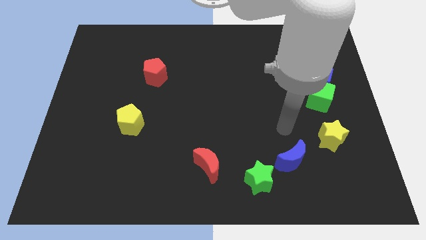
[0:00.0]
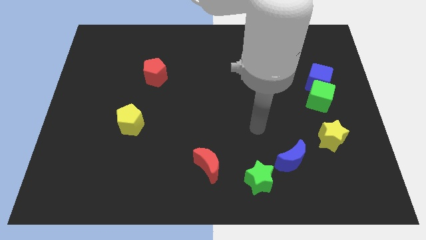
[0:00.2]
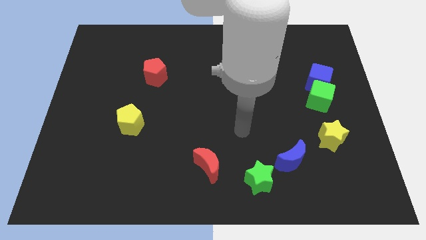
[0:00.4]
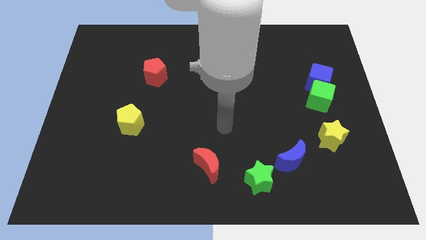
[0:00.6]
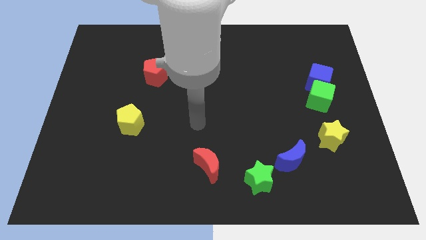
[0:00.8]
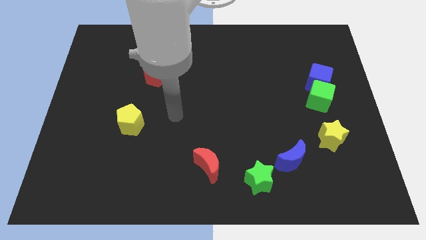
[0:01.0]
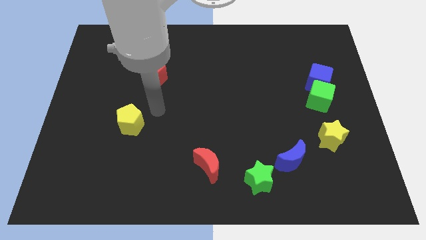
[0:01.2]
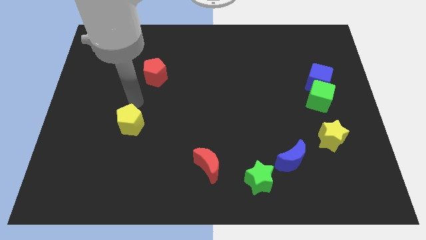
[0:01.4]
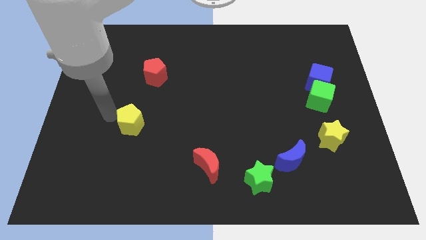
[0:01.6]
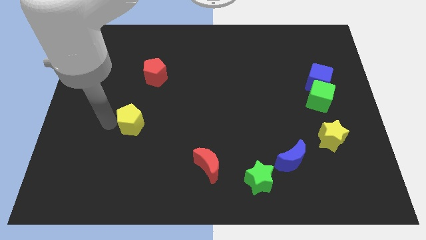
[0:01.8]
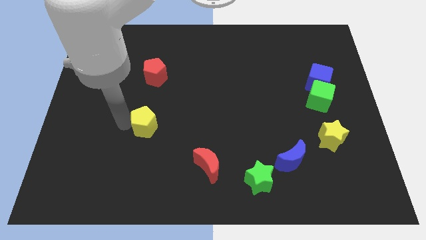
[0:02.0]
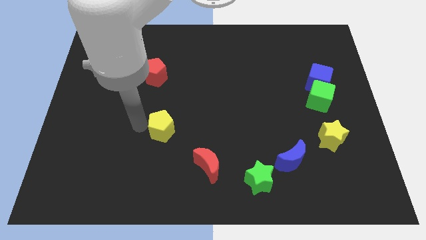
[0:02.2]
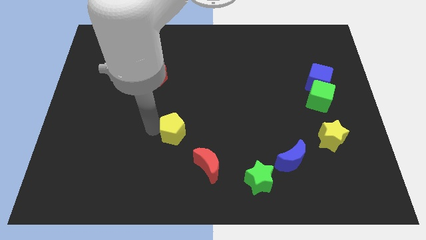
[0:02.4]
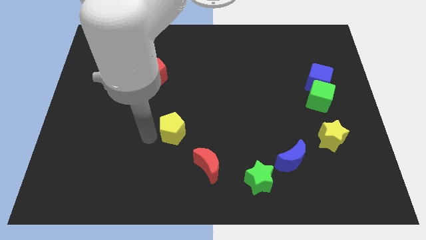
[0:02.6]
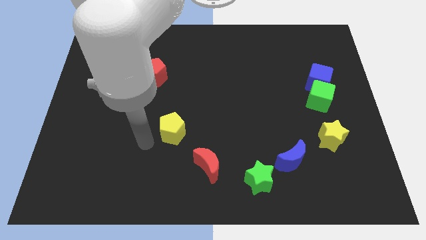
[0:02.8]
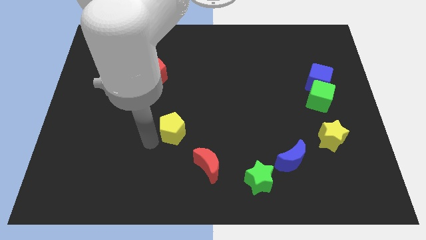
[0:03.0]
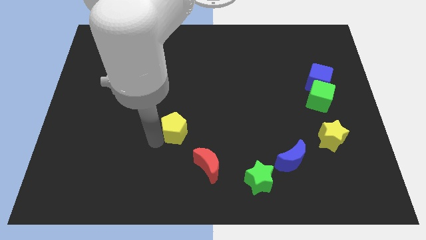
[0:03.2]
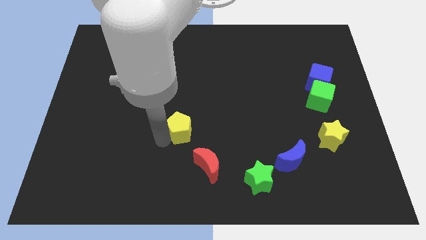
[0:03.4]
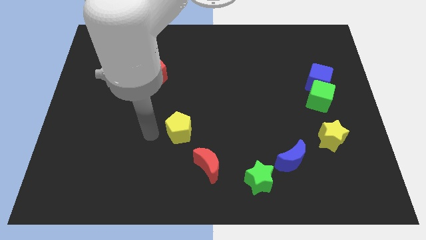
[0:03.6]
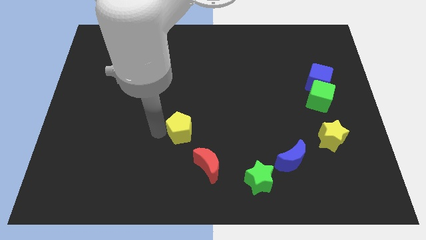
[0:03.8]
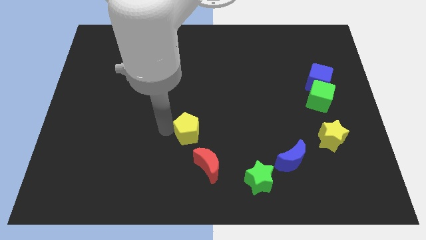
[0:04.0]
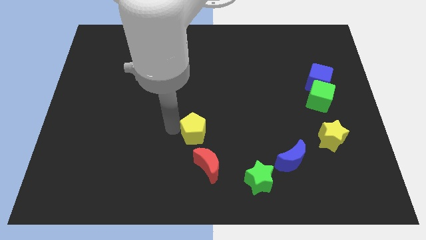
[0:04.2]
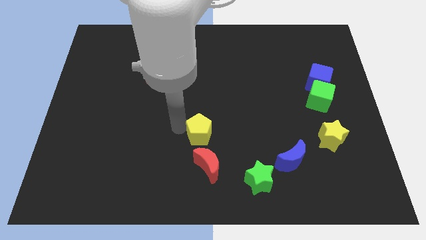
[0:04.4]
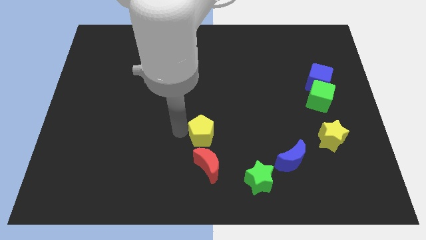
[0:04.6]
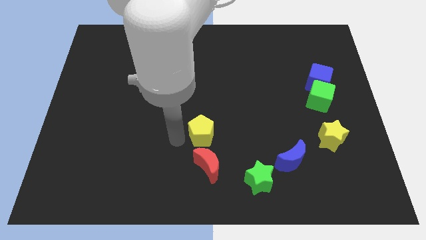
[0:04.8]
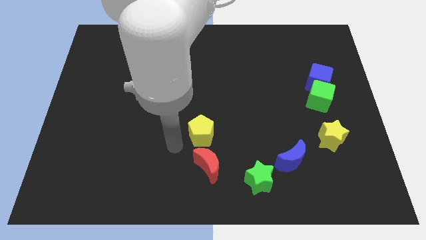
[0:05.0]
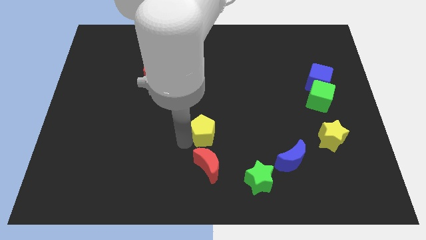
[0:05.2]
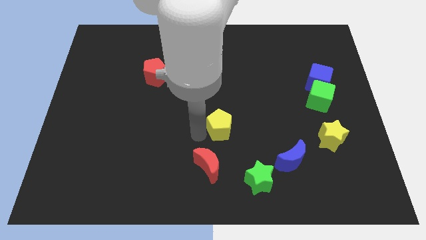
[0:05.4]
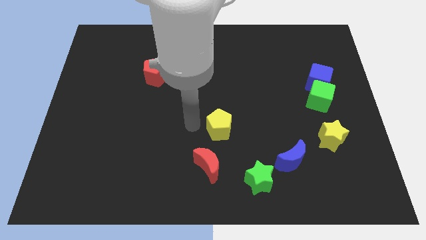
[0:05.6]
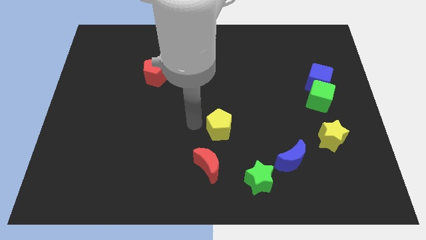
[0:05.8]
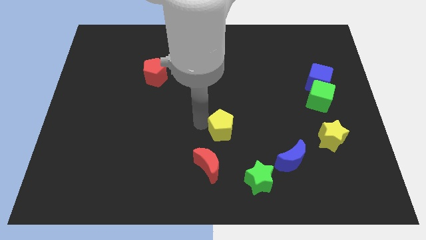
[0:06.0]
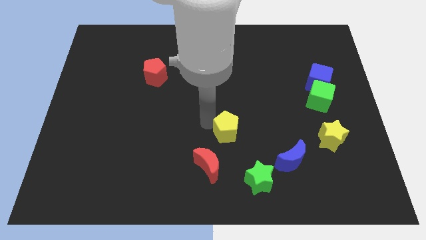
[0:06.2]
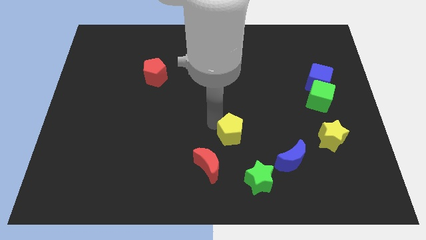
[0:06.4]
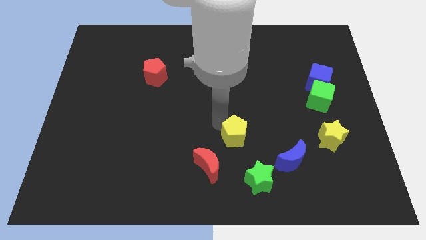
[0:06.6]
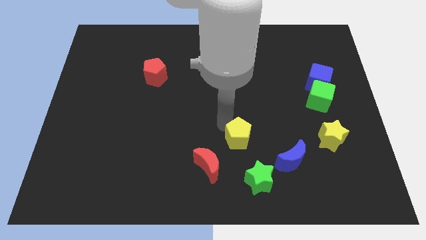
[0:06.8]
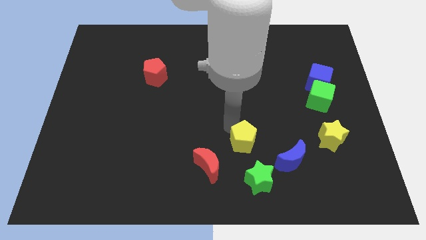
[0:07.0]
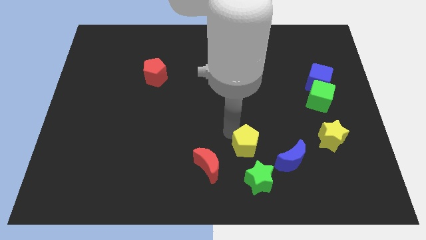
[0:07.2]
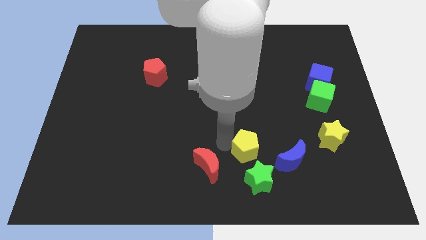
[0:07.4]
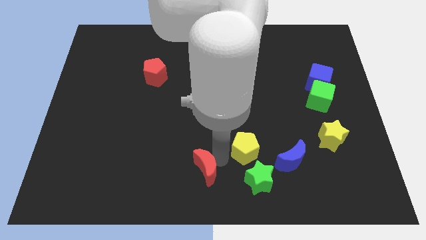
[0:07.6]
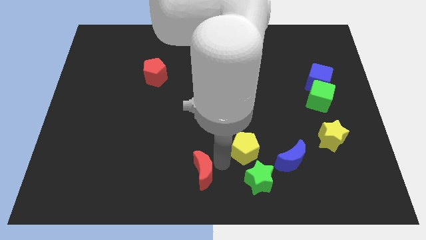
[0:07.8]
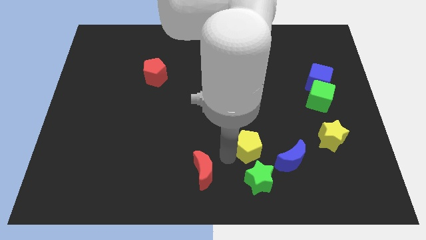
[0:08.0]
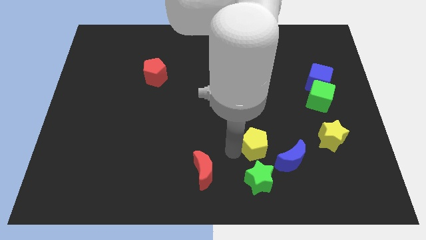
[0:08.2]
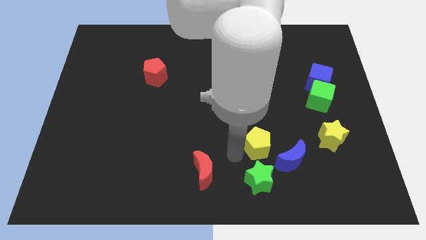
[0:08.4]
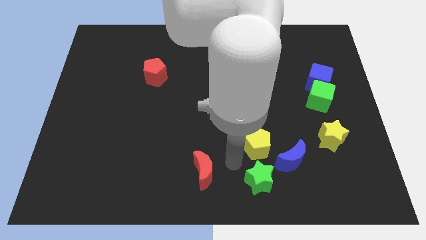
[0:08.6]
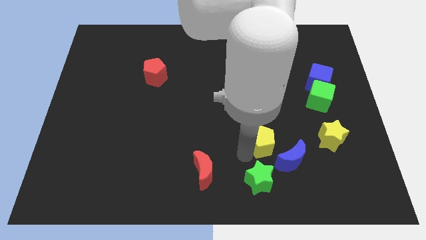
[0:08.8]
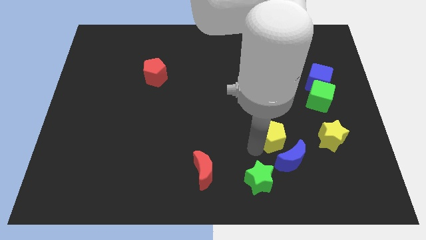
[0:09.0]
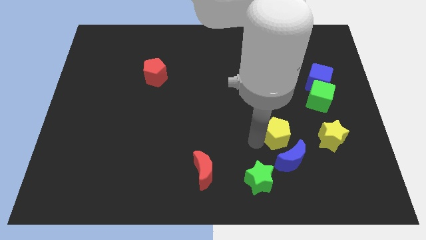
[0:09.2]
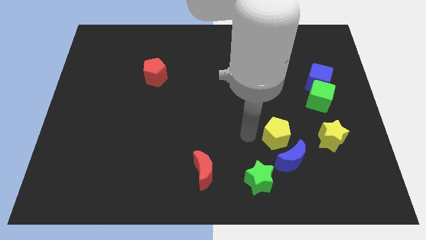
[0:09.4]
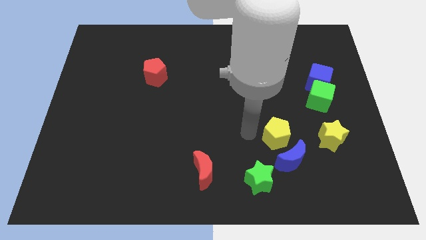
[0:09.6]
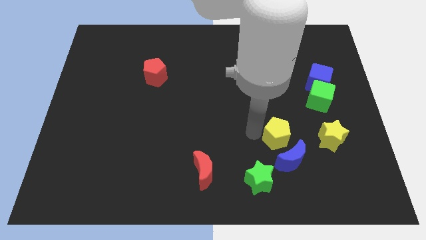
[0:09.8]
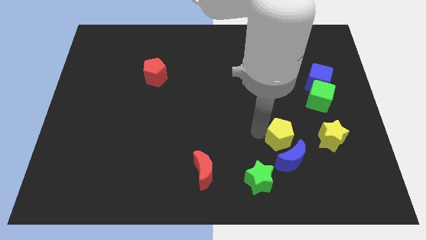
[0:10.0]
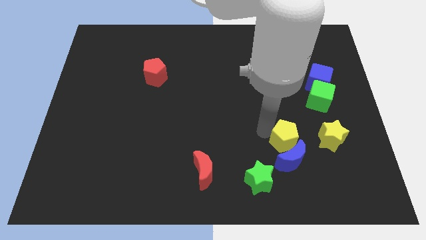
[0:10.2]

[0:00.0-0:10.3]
move the yellow pentagon diagonally up and to the right of the blue moon

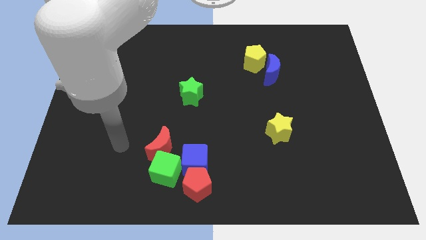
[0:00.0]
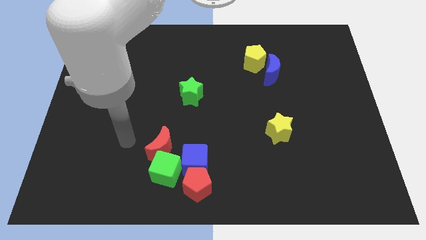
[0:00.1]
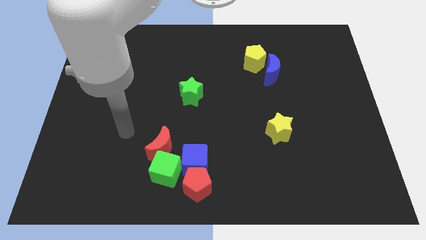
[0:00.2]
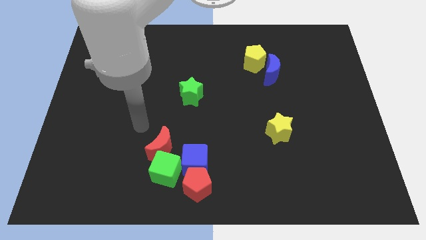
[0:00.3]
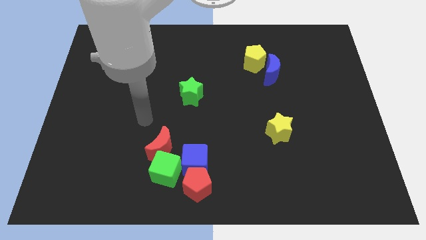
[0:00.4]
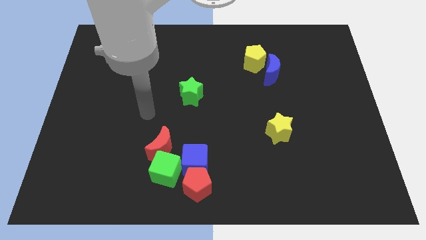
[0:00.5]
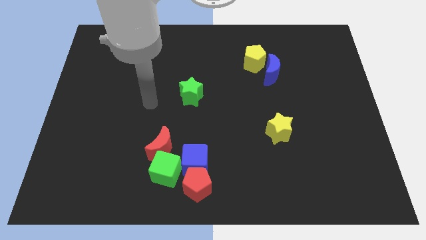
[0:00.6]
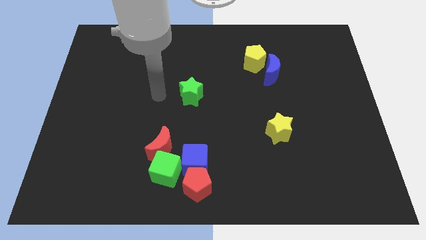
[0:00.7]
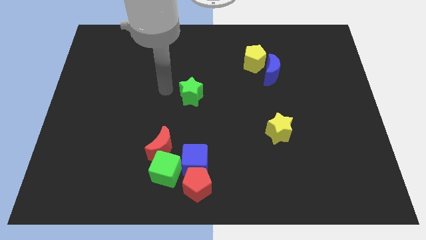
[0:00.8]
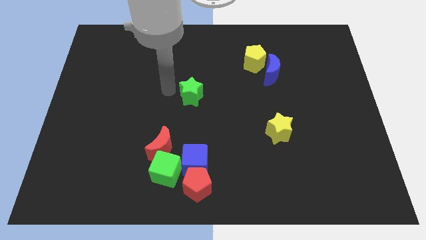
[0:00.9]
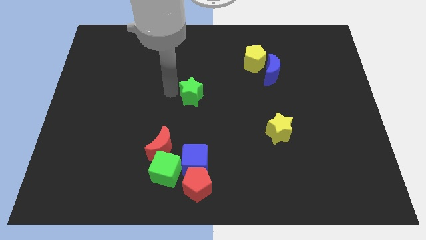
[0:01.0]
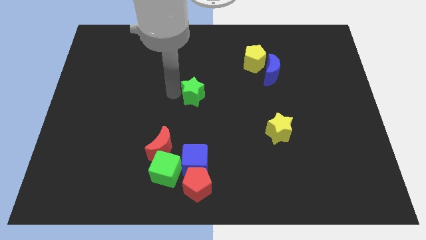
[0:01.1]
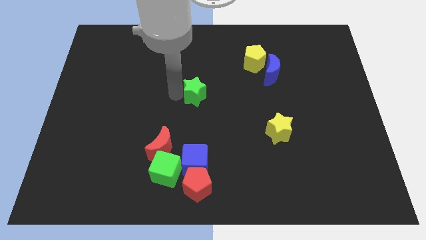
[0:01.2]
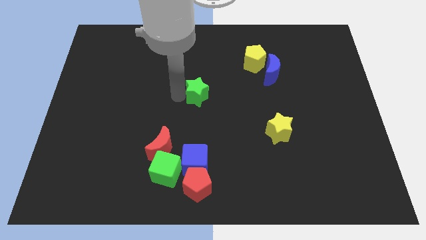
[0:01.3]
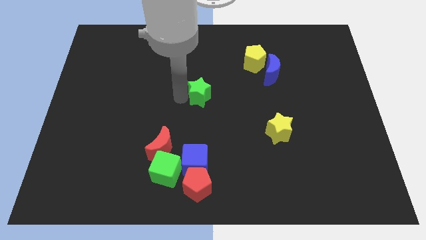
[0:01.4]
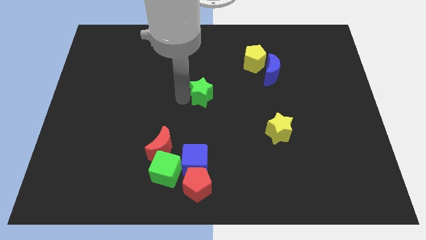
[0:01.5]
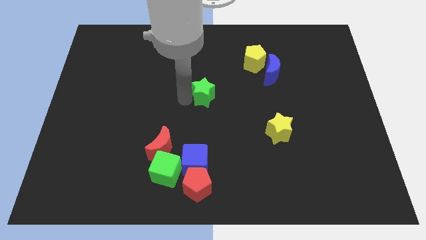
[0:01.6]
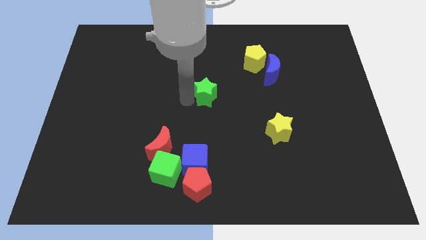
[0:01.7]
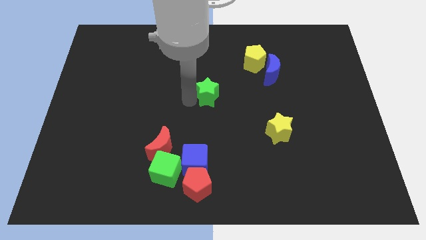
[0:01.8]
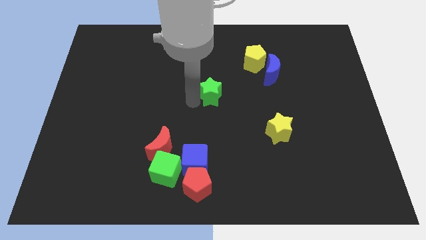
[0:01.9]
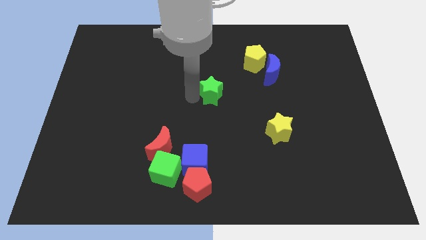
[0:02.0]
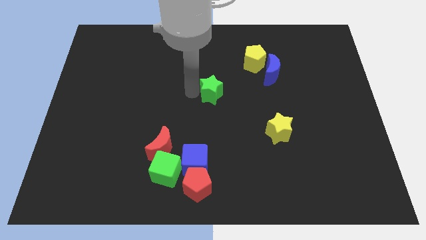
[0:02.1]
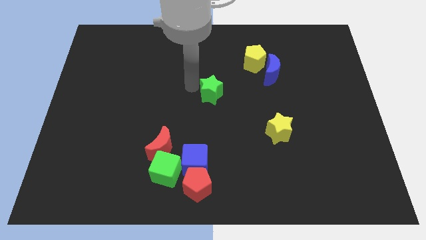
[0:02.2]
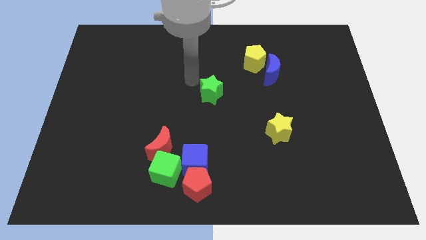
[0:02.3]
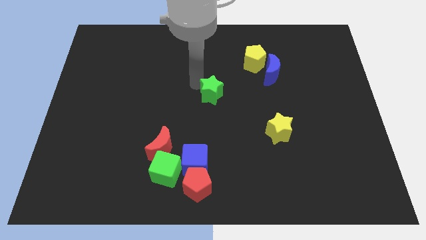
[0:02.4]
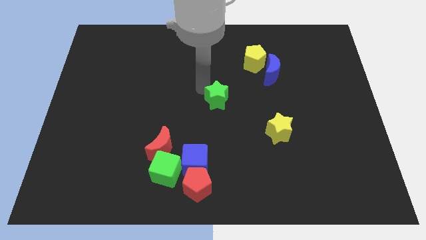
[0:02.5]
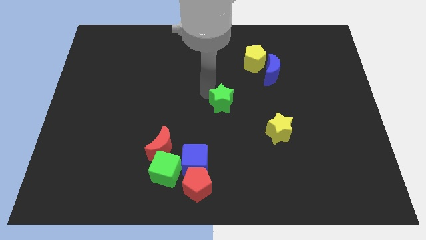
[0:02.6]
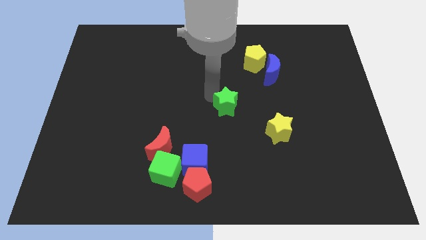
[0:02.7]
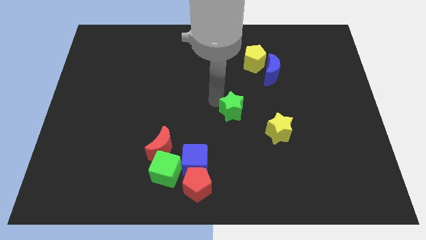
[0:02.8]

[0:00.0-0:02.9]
push the green star to the top left of the yellow star
